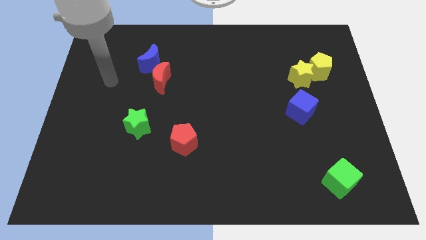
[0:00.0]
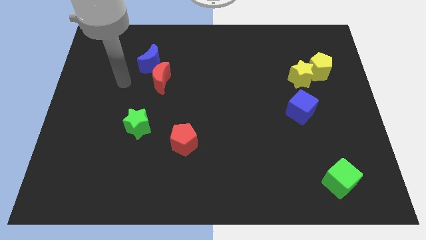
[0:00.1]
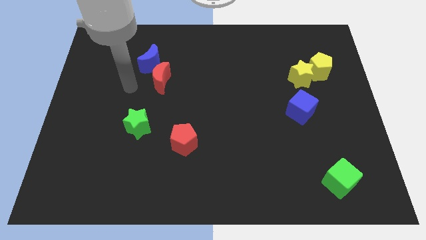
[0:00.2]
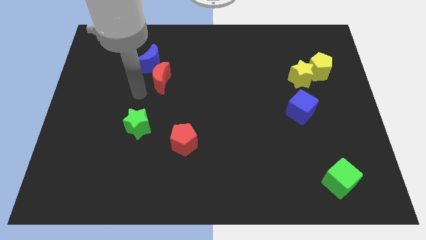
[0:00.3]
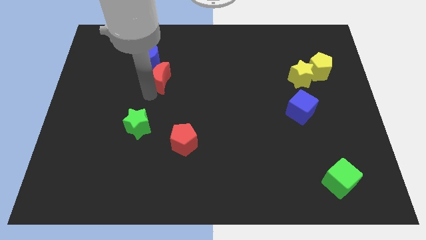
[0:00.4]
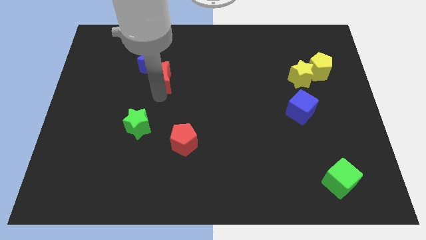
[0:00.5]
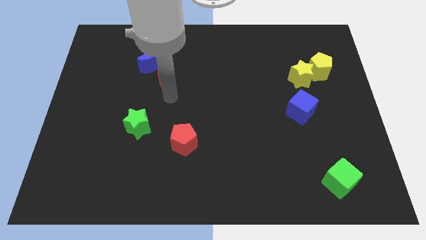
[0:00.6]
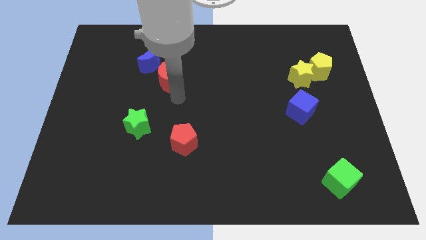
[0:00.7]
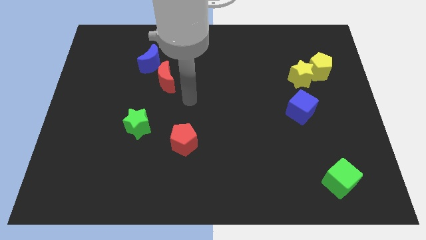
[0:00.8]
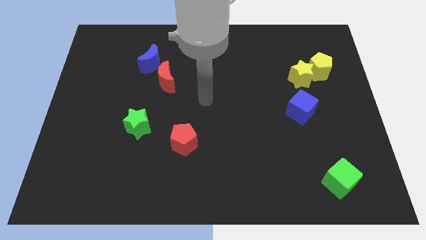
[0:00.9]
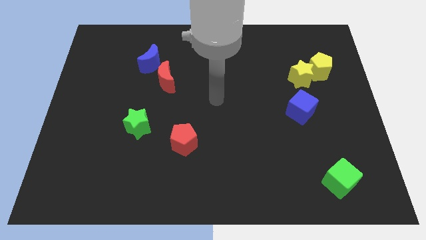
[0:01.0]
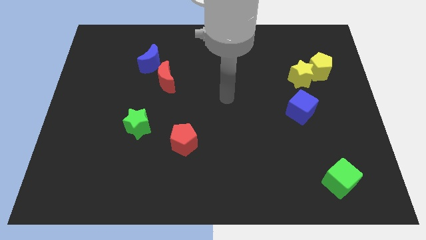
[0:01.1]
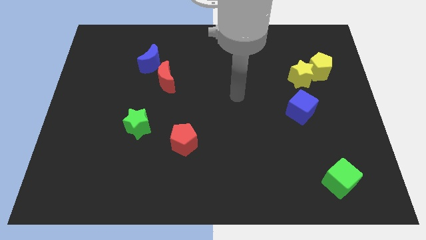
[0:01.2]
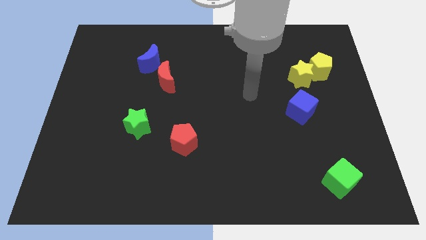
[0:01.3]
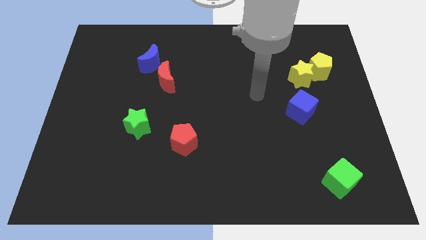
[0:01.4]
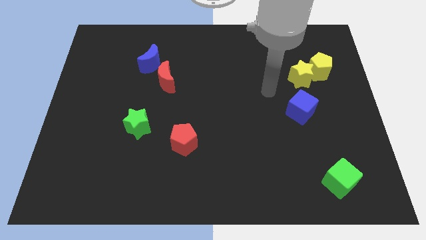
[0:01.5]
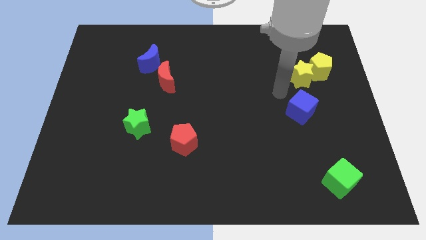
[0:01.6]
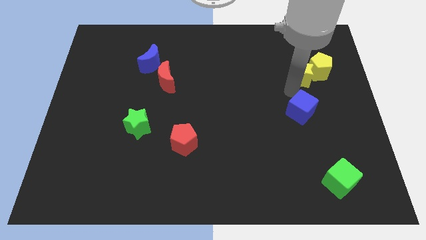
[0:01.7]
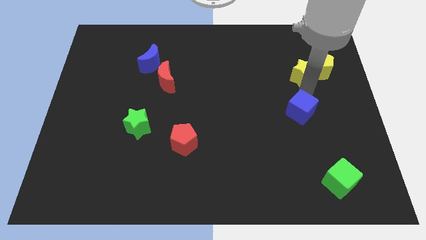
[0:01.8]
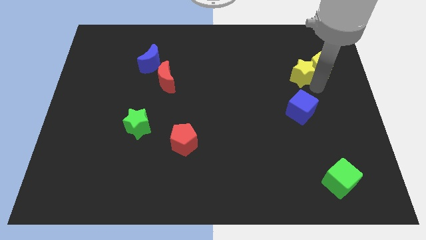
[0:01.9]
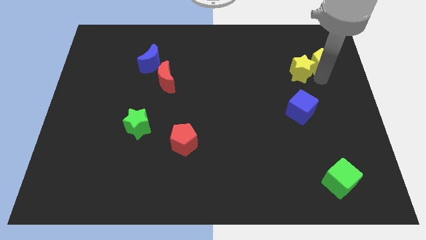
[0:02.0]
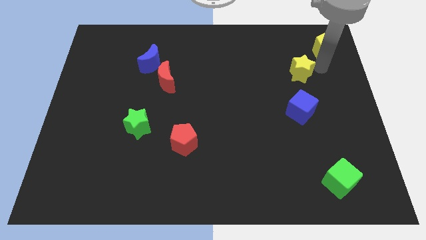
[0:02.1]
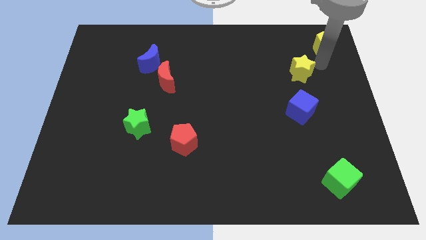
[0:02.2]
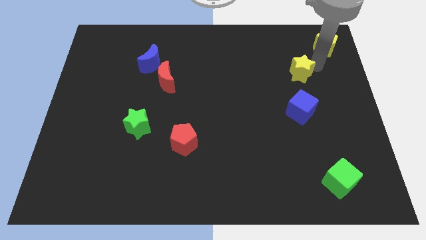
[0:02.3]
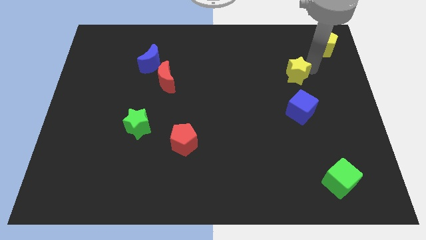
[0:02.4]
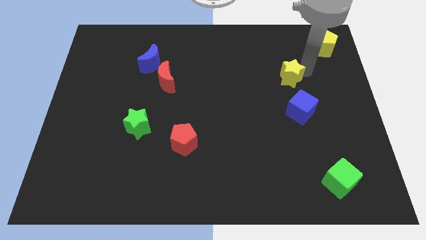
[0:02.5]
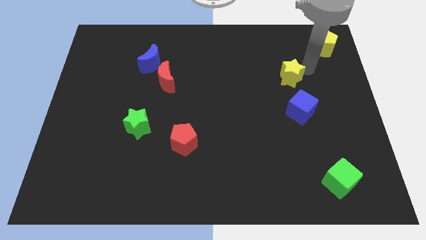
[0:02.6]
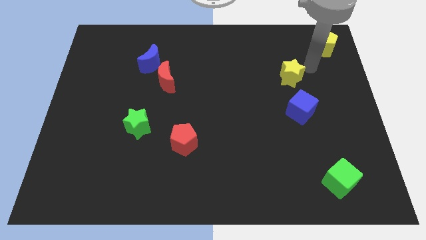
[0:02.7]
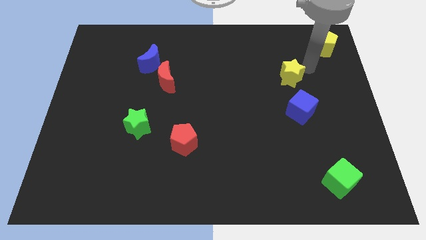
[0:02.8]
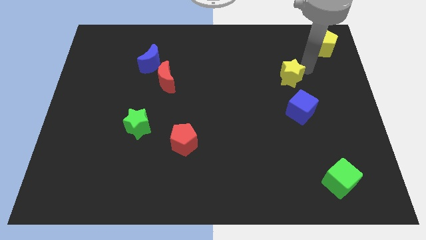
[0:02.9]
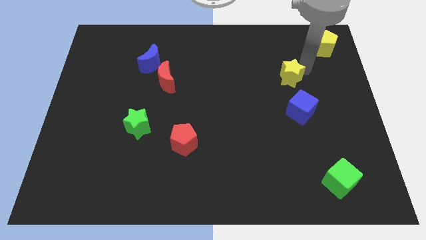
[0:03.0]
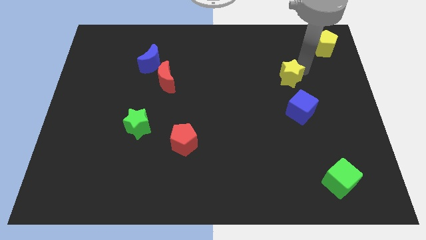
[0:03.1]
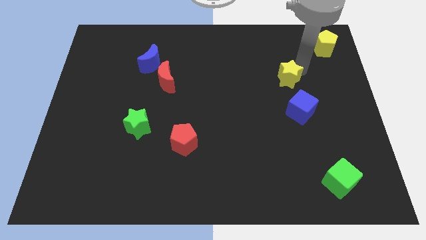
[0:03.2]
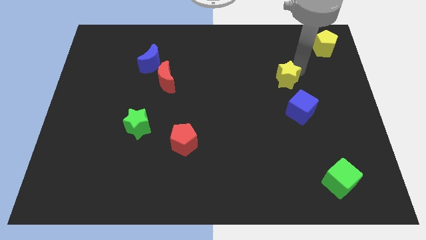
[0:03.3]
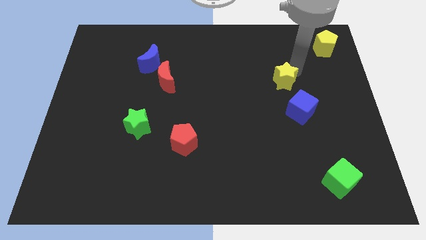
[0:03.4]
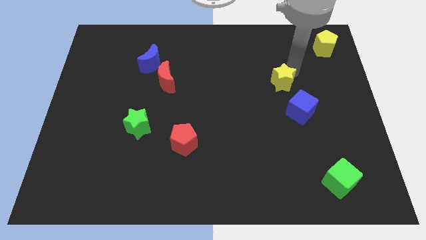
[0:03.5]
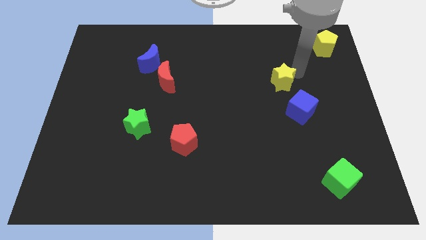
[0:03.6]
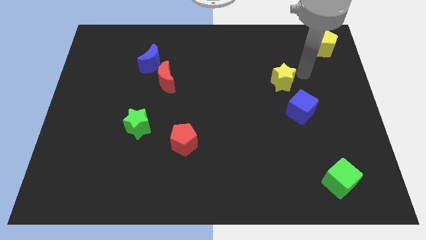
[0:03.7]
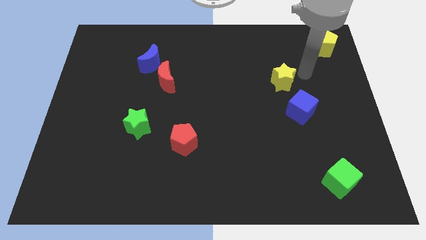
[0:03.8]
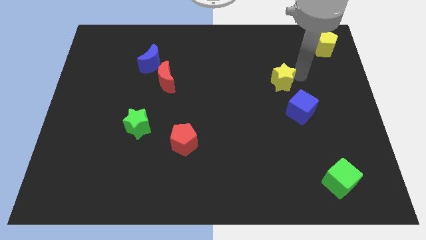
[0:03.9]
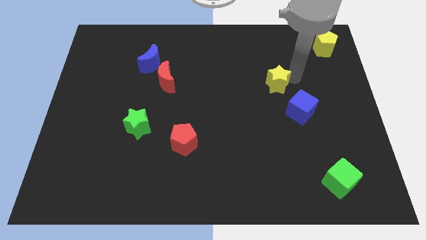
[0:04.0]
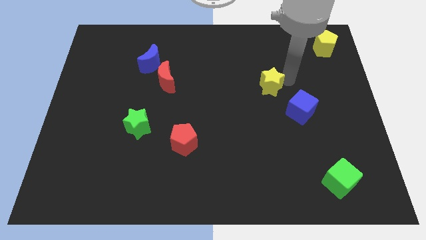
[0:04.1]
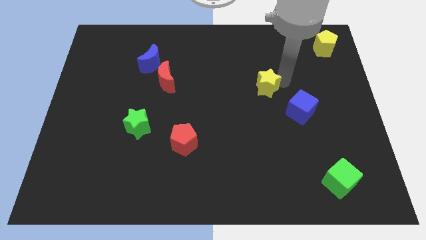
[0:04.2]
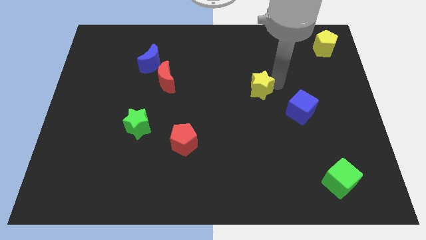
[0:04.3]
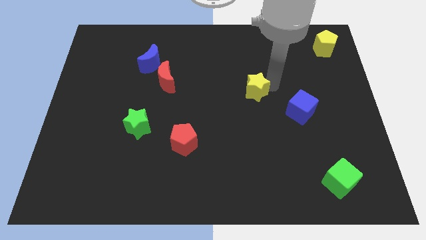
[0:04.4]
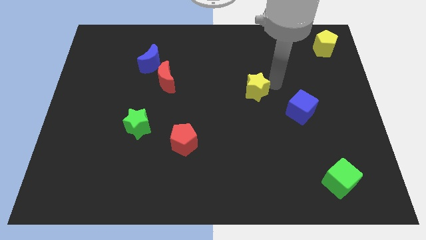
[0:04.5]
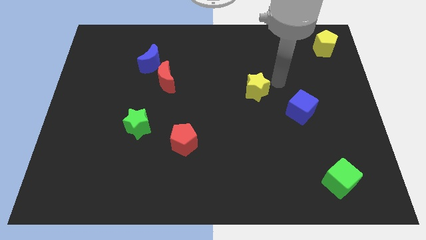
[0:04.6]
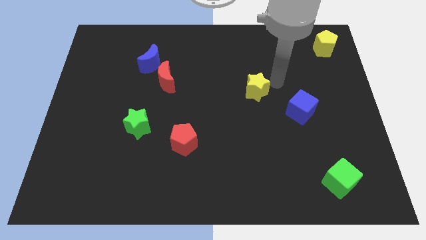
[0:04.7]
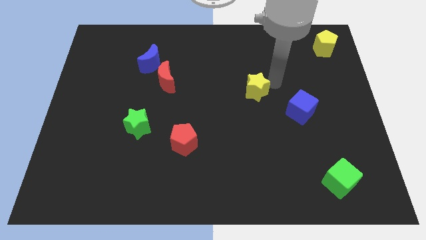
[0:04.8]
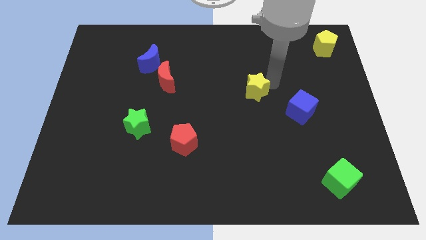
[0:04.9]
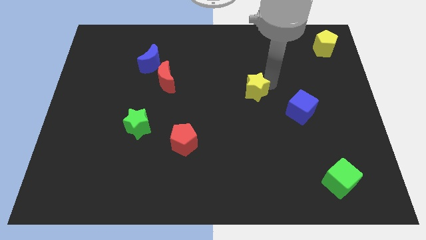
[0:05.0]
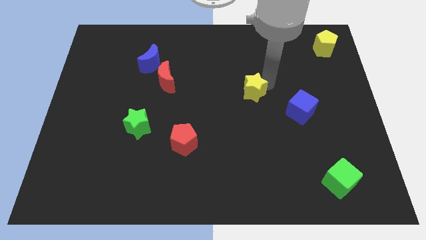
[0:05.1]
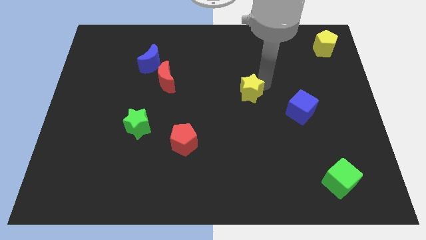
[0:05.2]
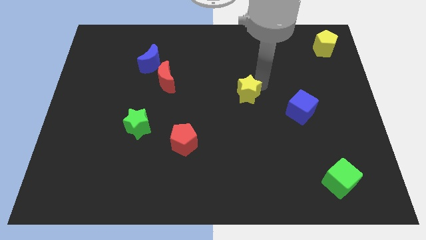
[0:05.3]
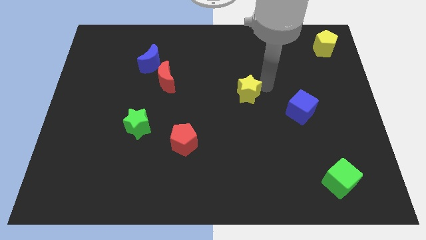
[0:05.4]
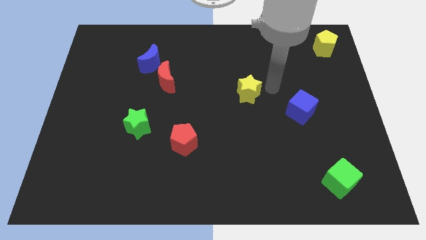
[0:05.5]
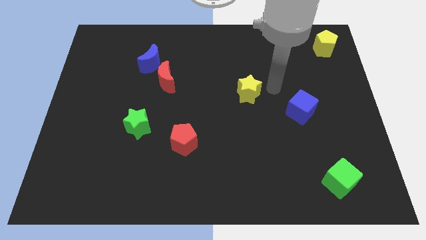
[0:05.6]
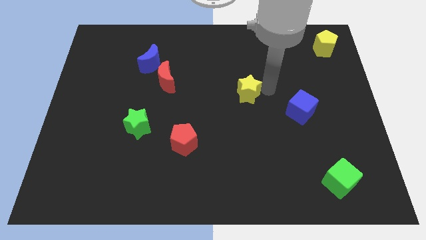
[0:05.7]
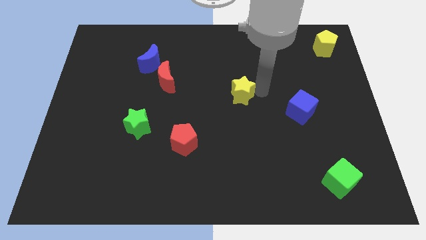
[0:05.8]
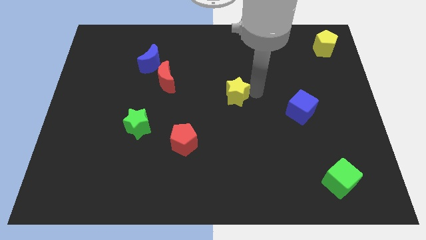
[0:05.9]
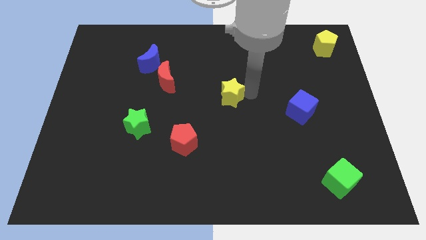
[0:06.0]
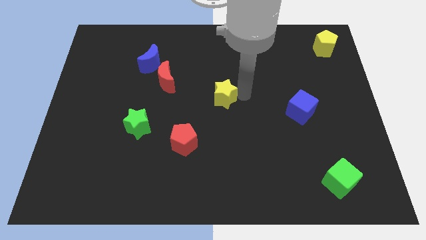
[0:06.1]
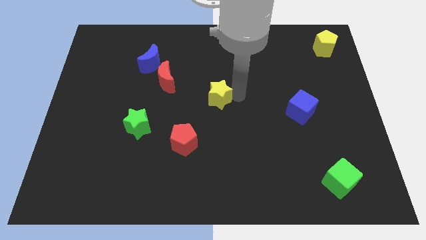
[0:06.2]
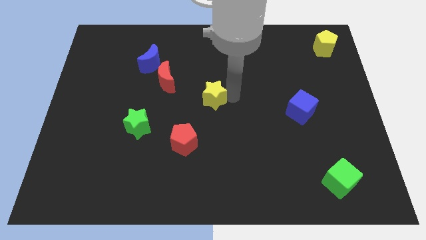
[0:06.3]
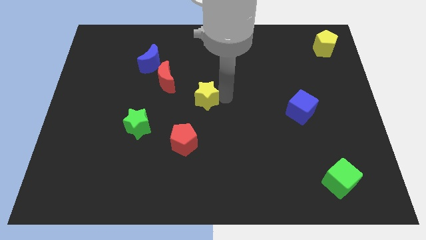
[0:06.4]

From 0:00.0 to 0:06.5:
push the yellow star to the top side of the red pentagon

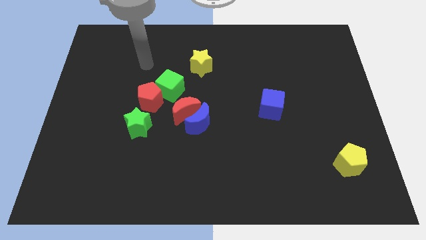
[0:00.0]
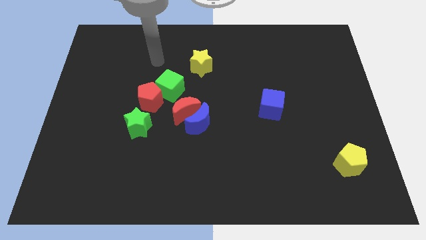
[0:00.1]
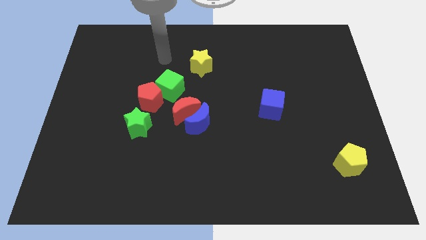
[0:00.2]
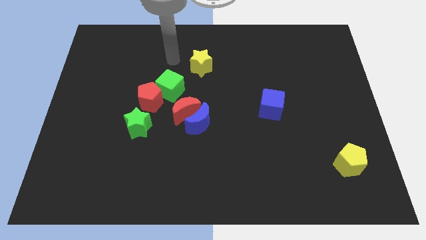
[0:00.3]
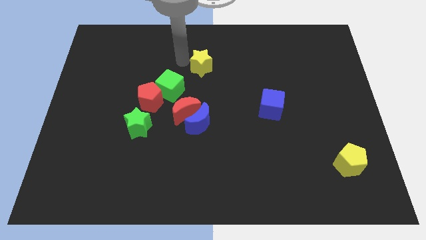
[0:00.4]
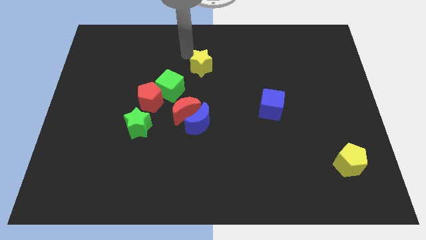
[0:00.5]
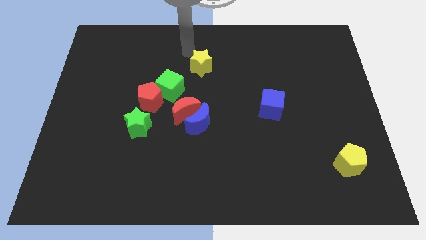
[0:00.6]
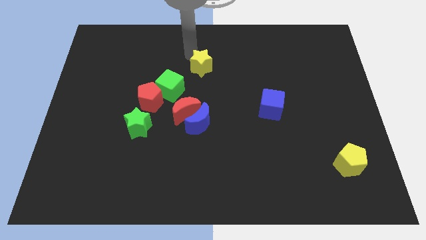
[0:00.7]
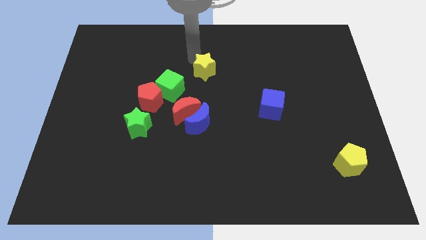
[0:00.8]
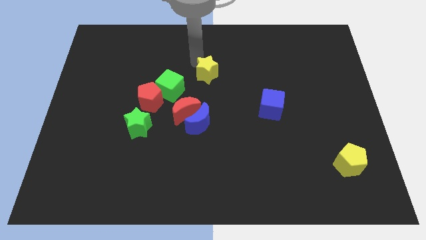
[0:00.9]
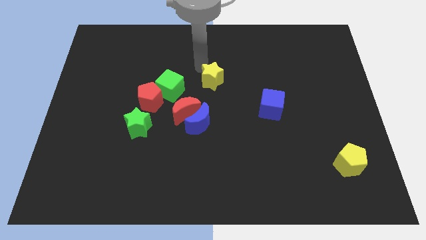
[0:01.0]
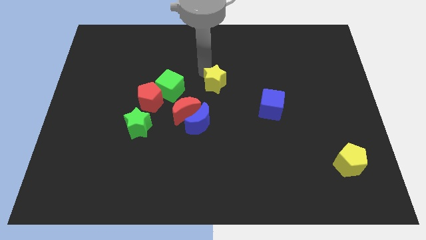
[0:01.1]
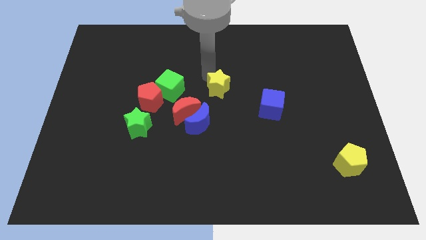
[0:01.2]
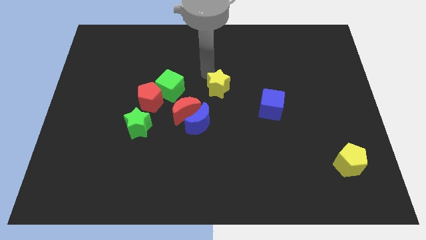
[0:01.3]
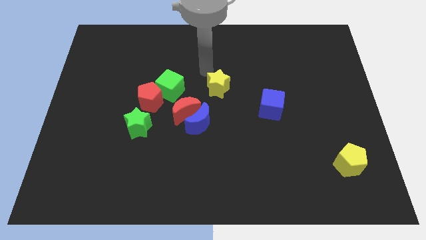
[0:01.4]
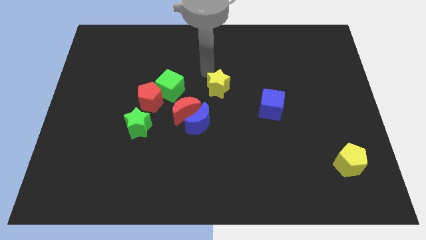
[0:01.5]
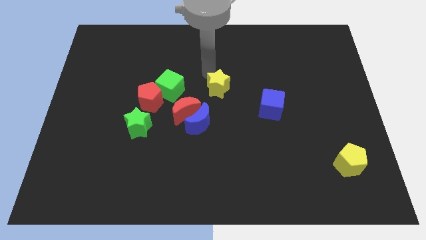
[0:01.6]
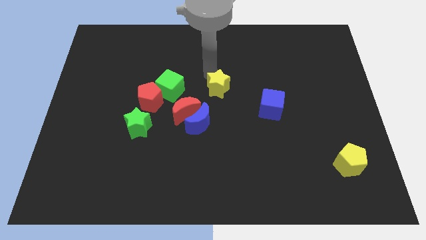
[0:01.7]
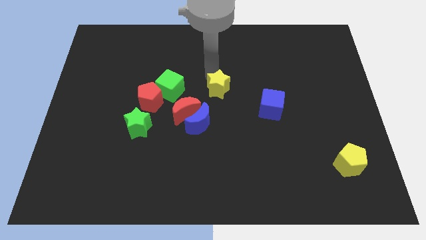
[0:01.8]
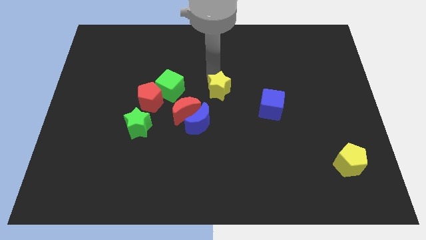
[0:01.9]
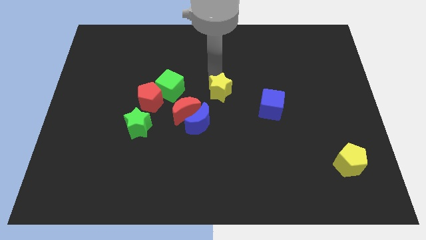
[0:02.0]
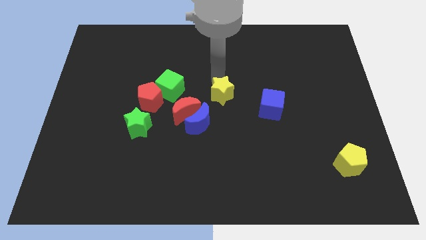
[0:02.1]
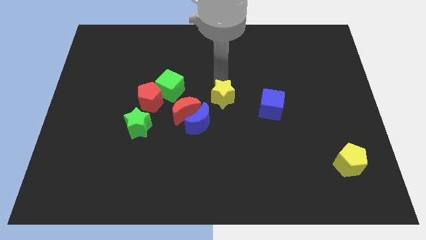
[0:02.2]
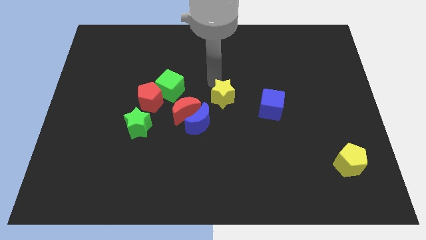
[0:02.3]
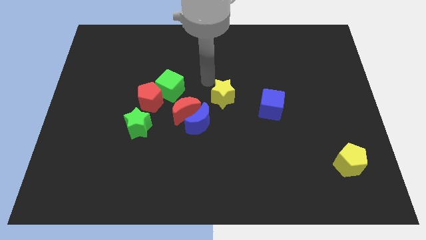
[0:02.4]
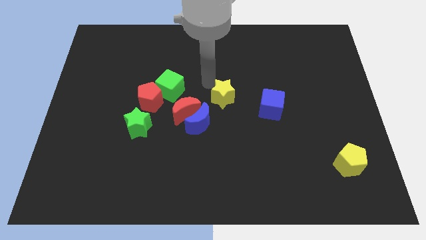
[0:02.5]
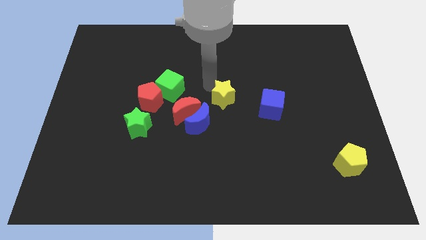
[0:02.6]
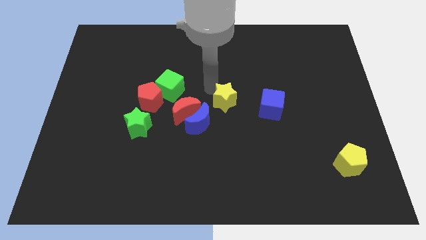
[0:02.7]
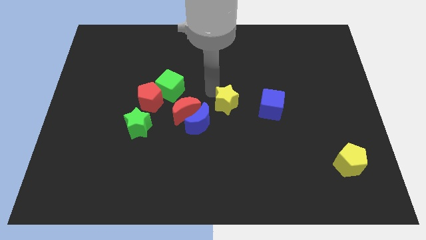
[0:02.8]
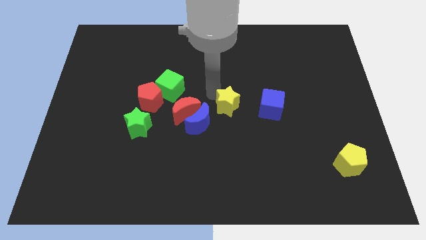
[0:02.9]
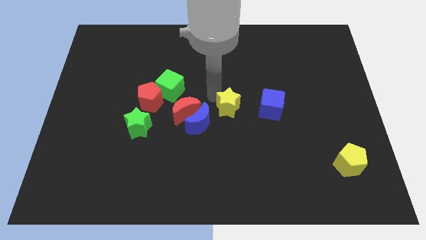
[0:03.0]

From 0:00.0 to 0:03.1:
put the yellow star right of the blue moon
